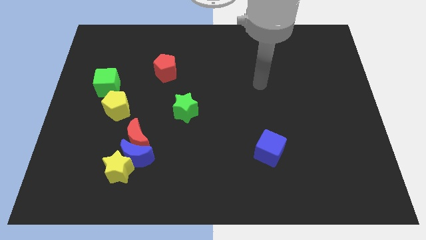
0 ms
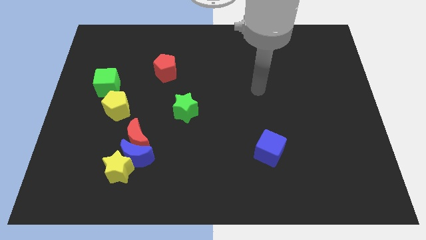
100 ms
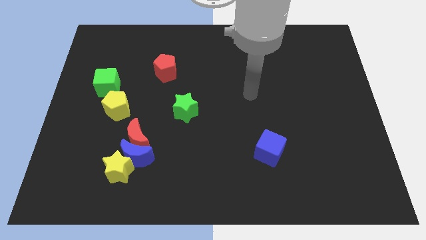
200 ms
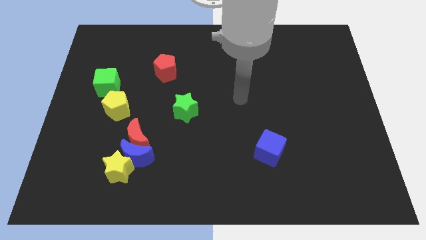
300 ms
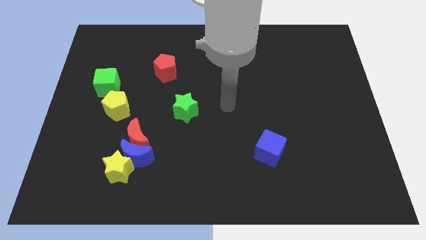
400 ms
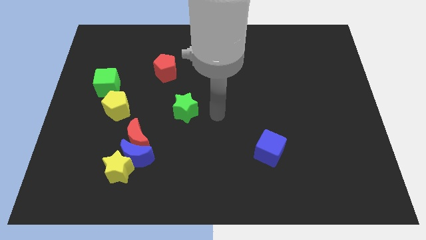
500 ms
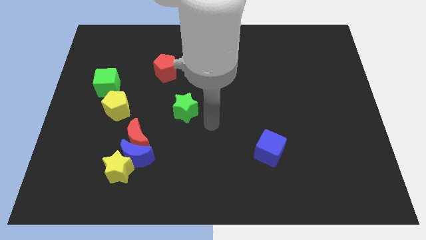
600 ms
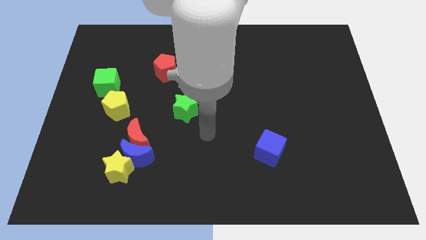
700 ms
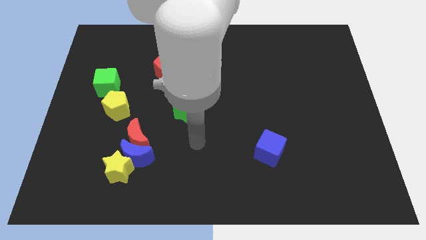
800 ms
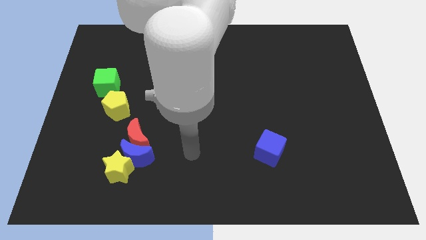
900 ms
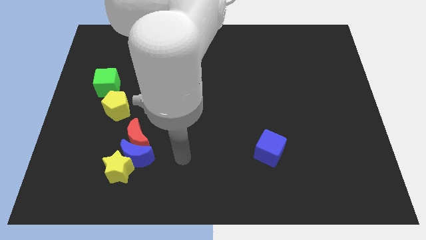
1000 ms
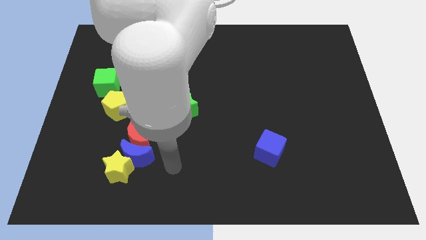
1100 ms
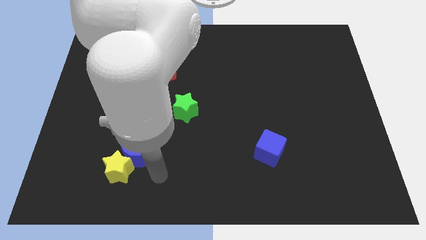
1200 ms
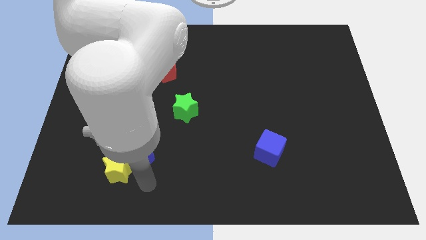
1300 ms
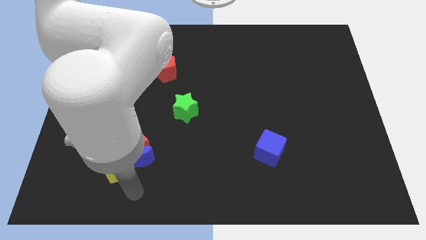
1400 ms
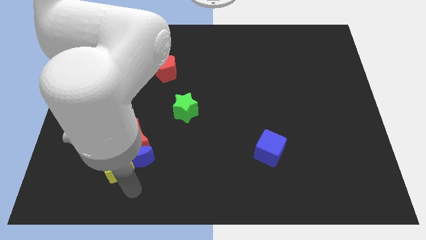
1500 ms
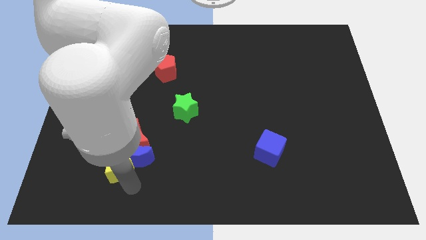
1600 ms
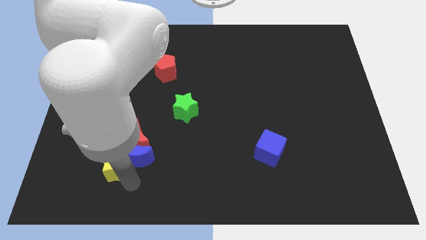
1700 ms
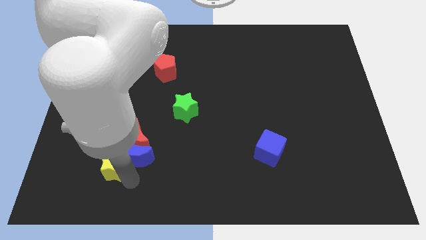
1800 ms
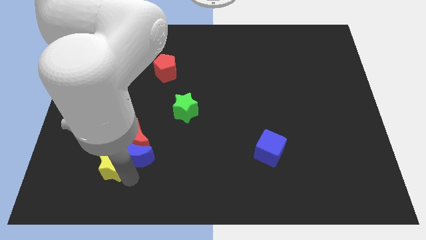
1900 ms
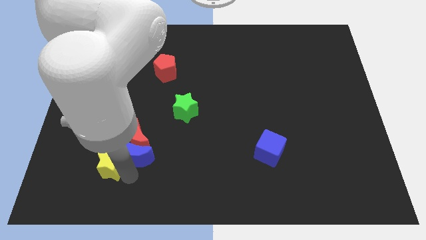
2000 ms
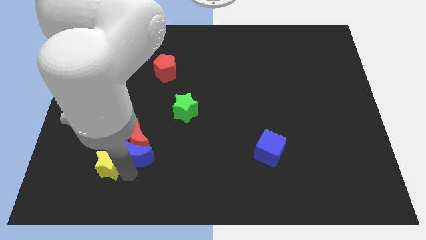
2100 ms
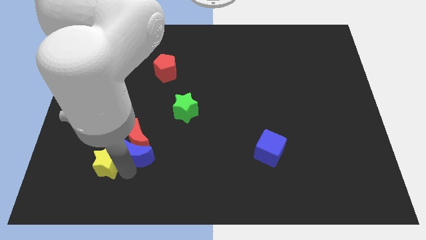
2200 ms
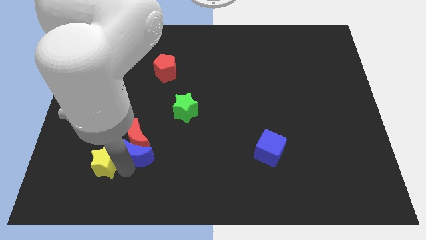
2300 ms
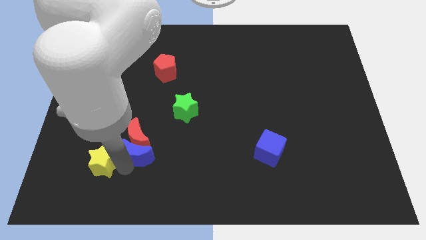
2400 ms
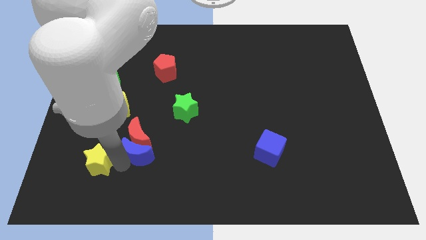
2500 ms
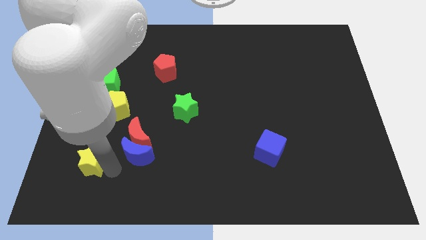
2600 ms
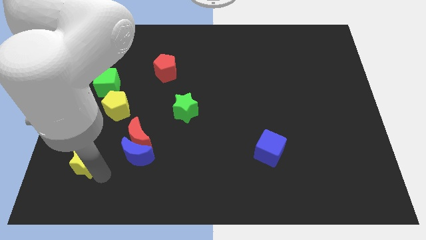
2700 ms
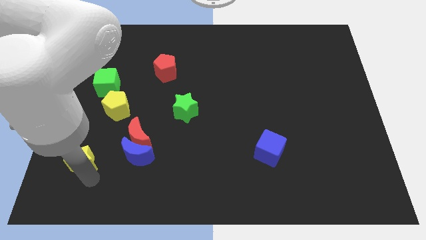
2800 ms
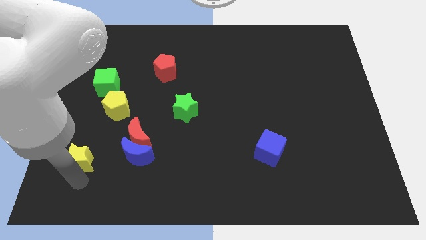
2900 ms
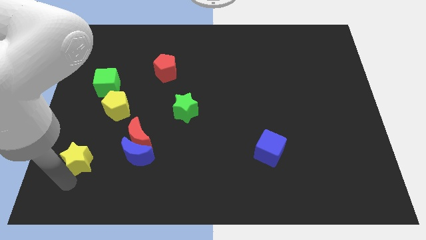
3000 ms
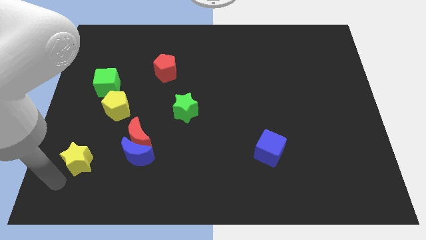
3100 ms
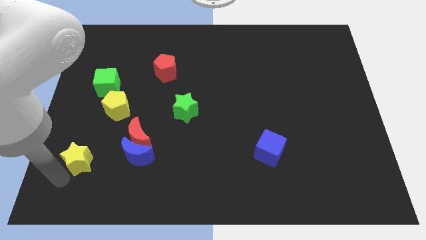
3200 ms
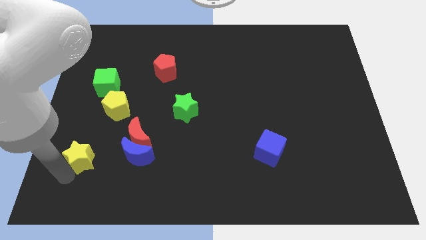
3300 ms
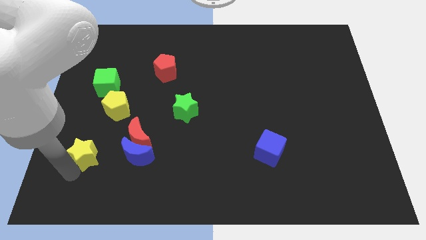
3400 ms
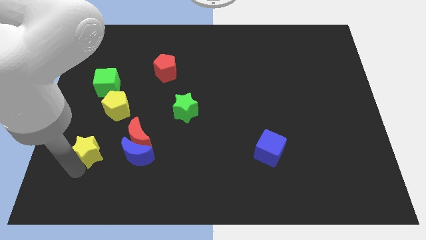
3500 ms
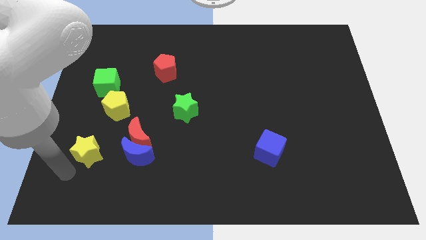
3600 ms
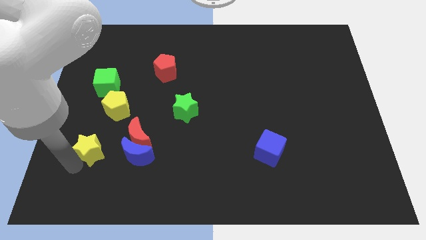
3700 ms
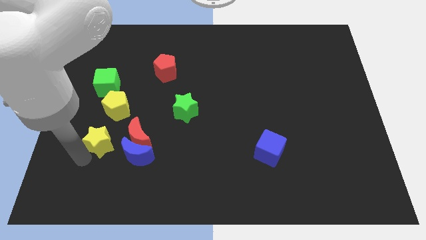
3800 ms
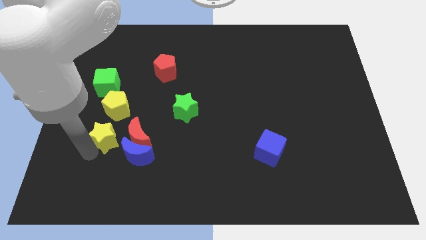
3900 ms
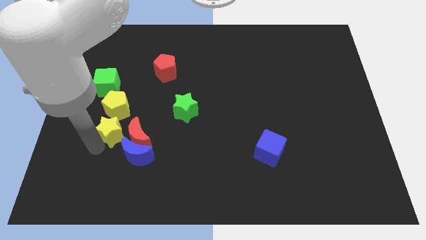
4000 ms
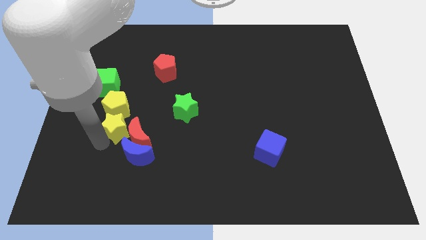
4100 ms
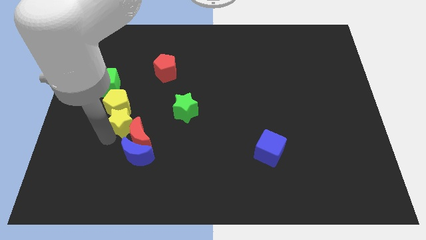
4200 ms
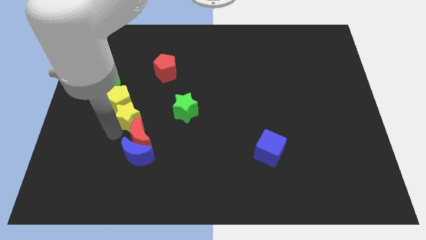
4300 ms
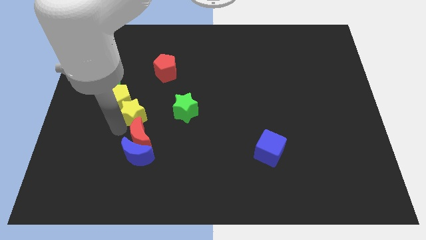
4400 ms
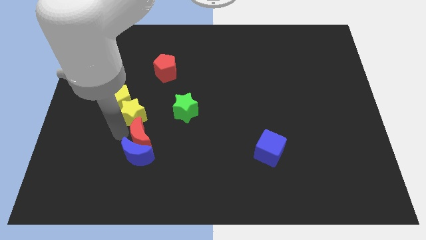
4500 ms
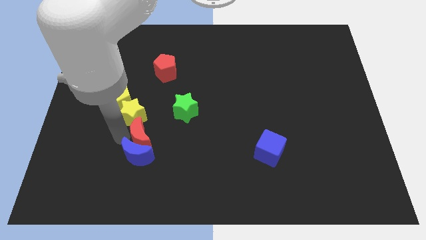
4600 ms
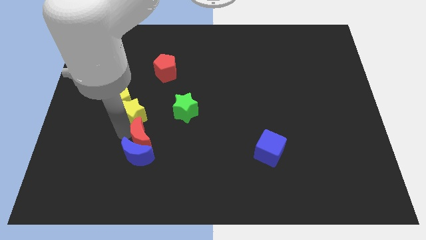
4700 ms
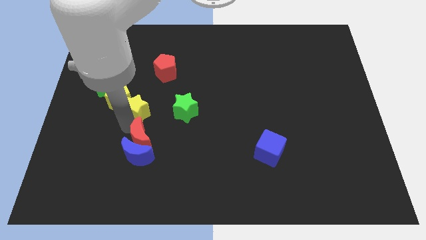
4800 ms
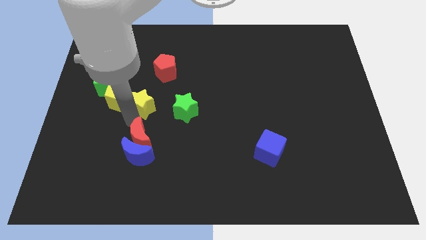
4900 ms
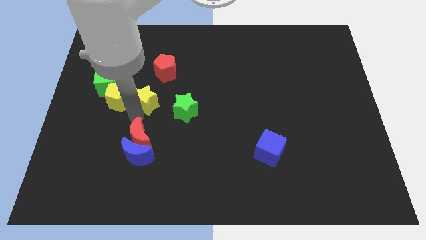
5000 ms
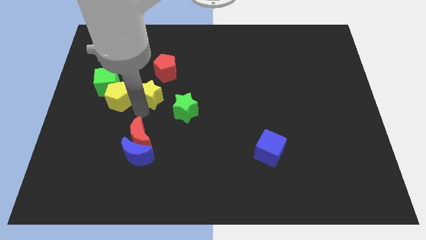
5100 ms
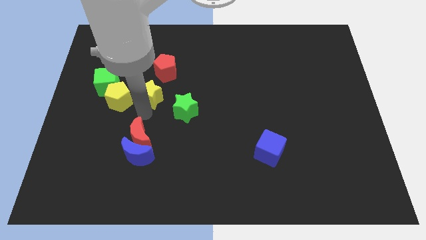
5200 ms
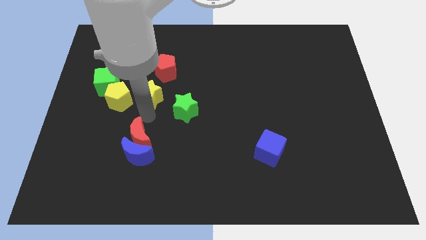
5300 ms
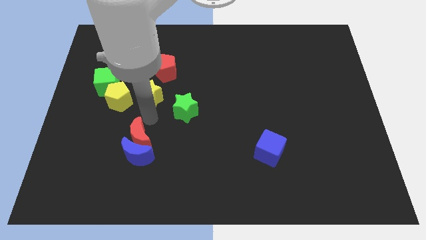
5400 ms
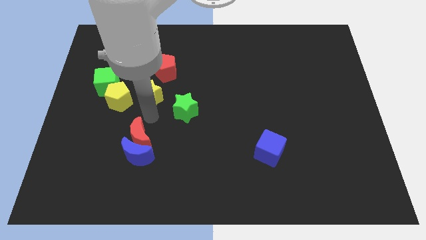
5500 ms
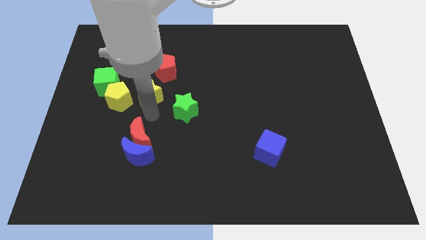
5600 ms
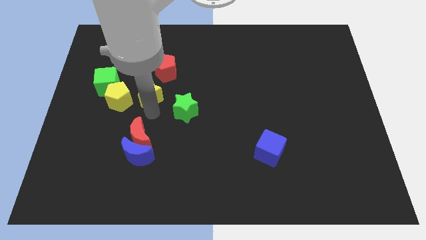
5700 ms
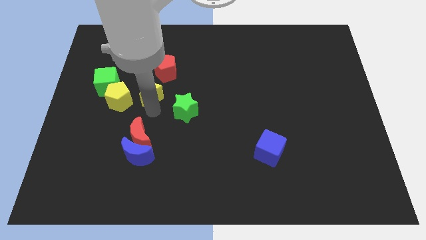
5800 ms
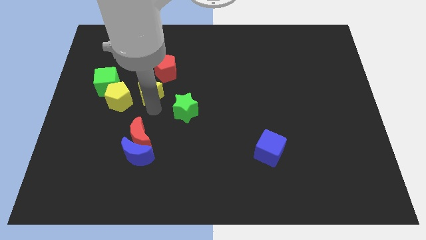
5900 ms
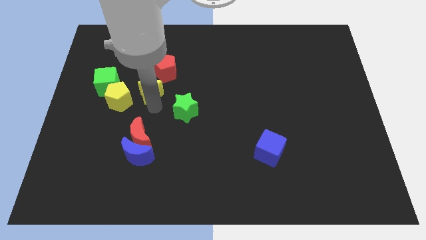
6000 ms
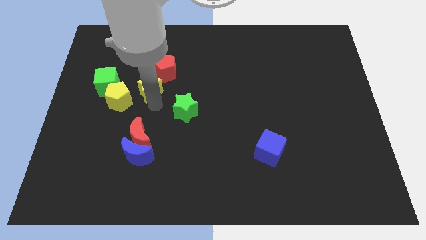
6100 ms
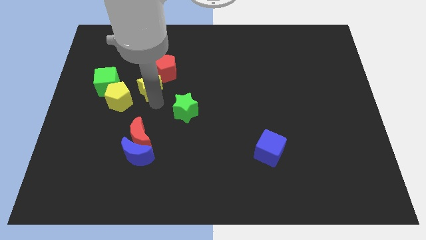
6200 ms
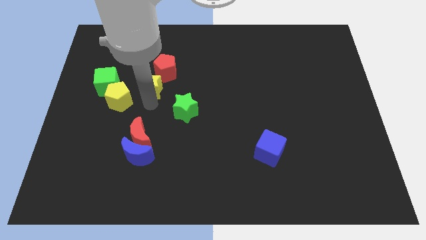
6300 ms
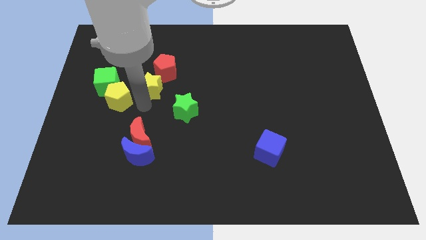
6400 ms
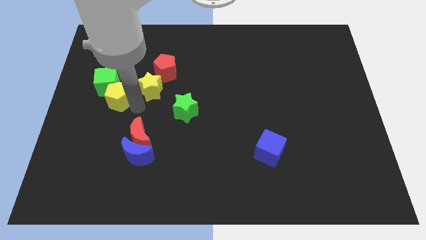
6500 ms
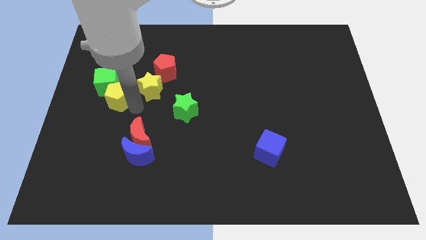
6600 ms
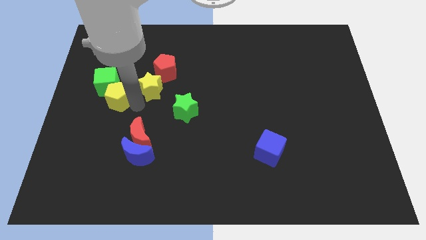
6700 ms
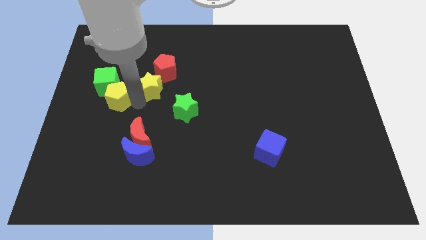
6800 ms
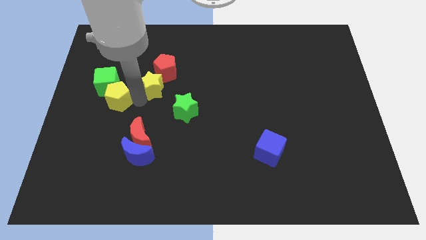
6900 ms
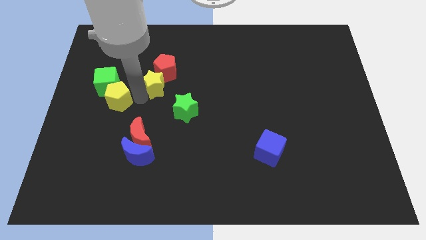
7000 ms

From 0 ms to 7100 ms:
move the yellow star to the red pentagon
